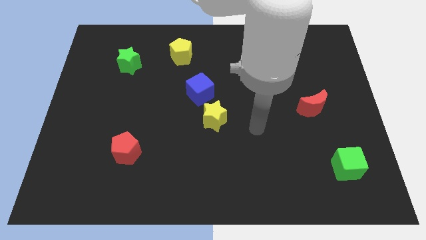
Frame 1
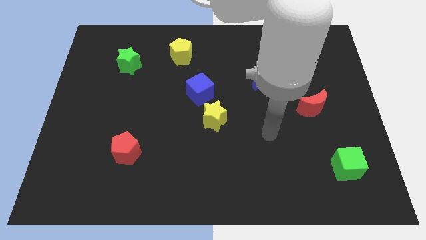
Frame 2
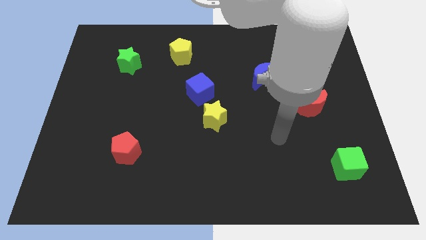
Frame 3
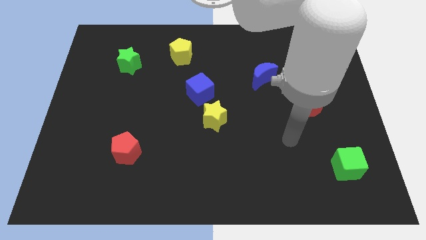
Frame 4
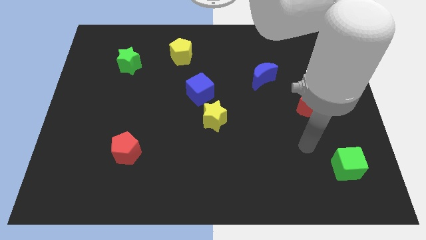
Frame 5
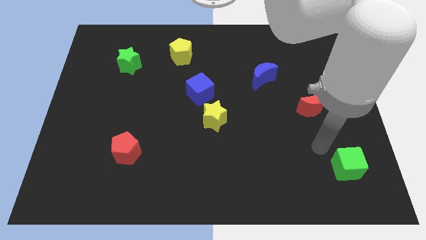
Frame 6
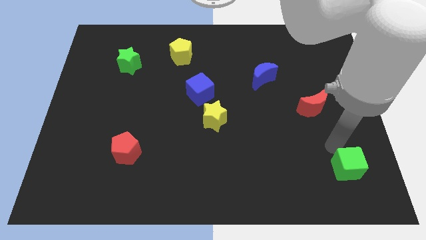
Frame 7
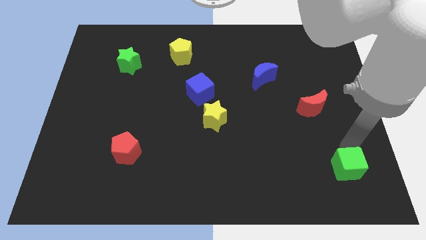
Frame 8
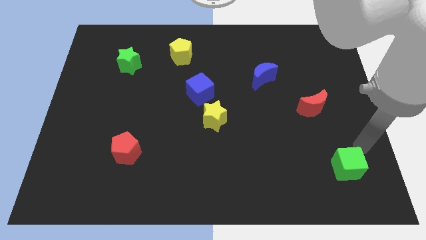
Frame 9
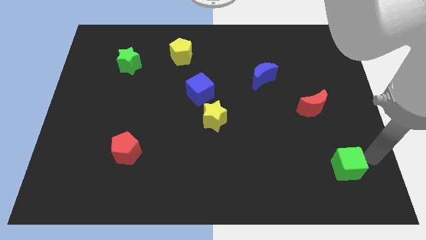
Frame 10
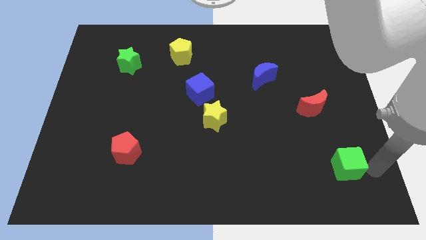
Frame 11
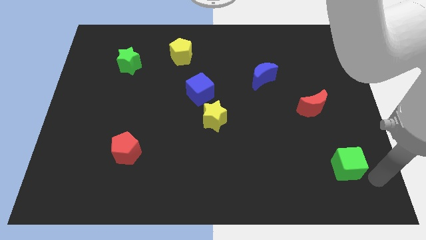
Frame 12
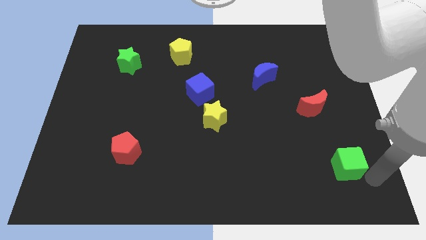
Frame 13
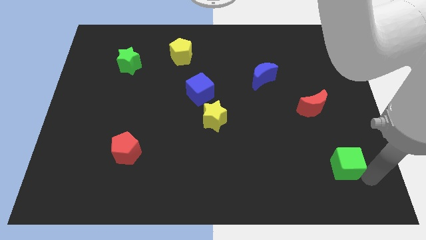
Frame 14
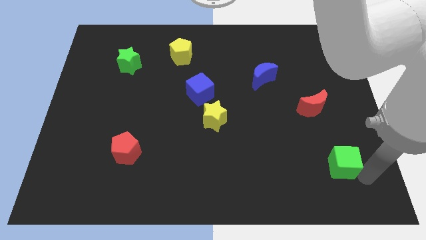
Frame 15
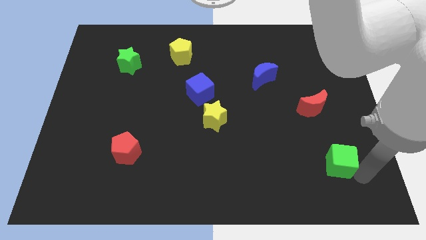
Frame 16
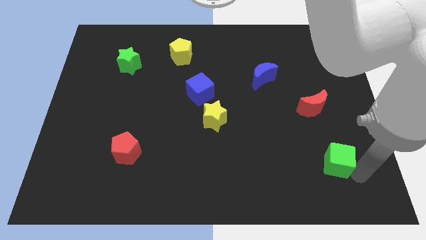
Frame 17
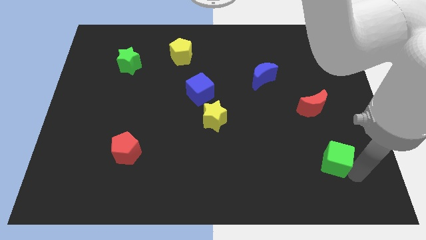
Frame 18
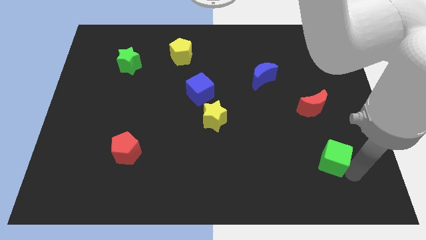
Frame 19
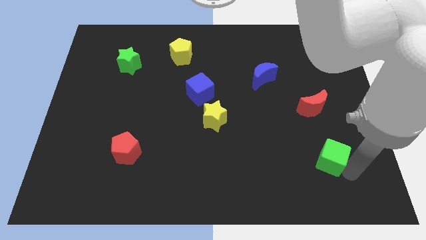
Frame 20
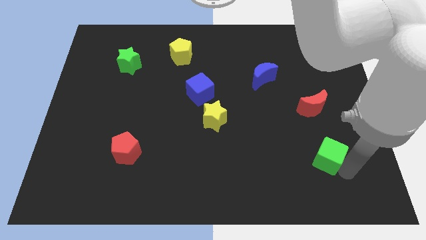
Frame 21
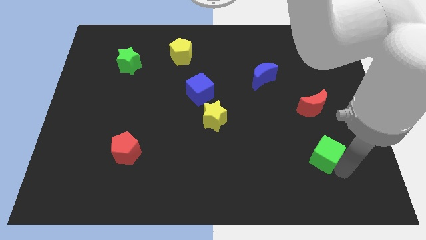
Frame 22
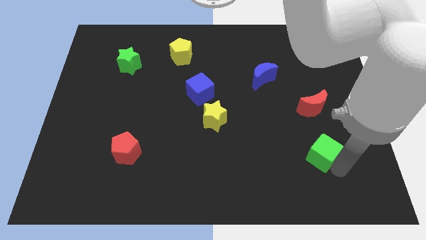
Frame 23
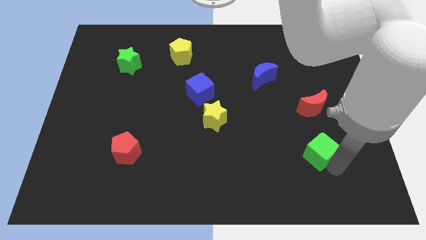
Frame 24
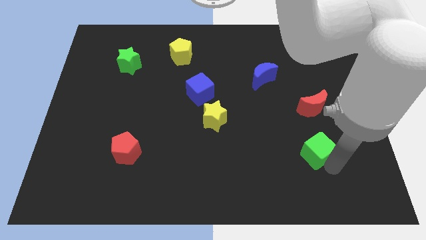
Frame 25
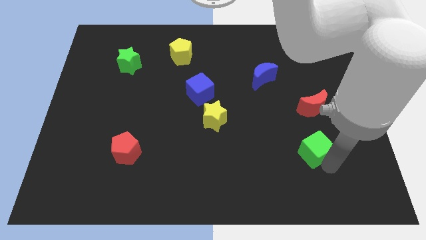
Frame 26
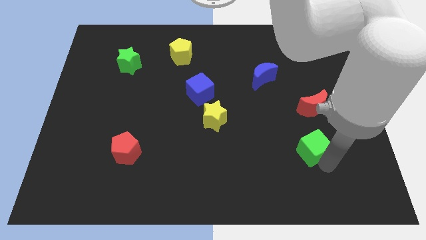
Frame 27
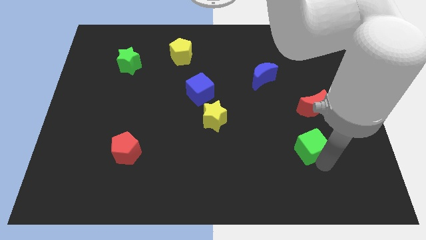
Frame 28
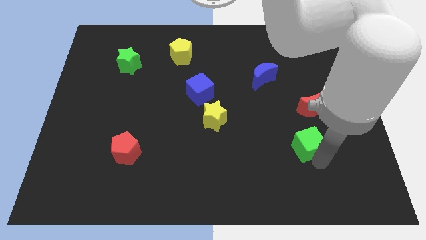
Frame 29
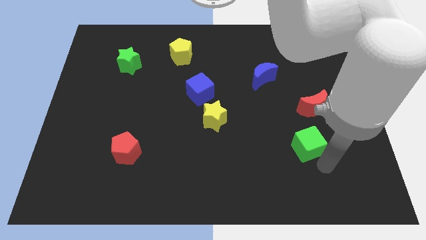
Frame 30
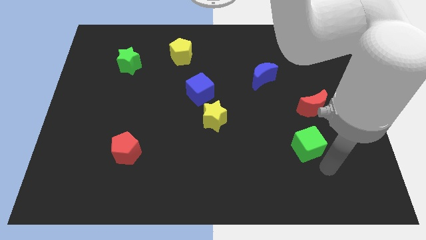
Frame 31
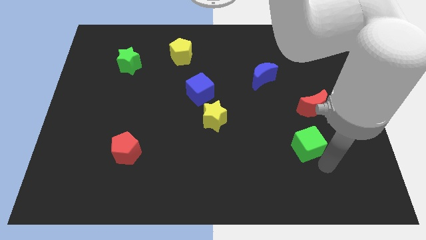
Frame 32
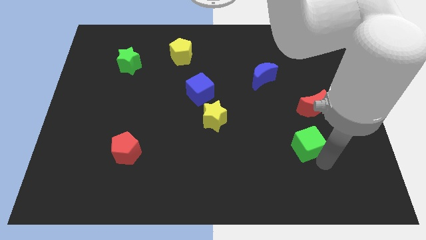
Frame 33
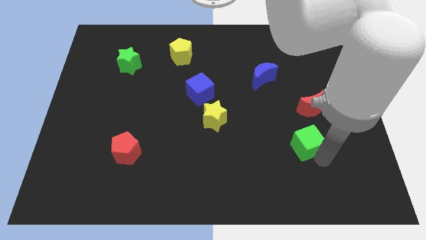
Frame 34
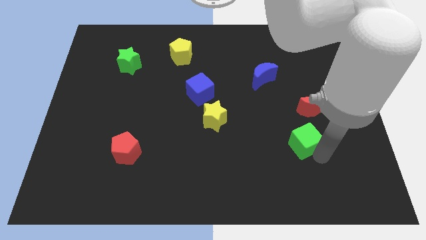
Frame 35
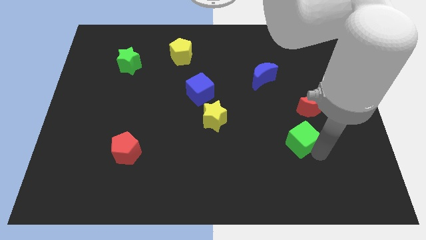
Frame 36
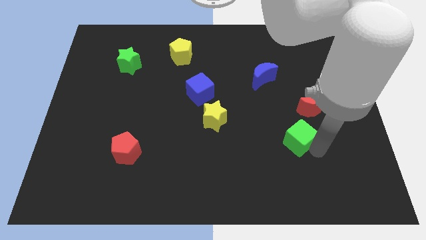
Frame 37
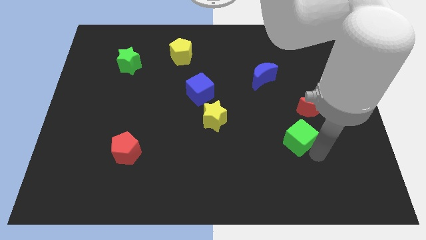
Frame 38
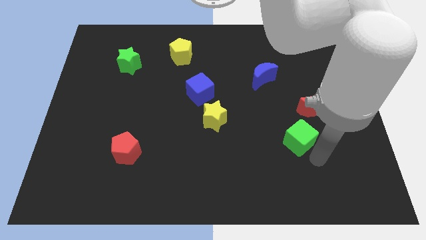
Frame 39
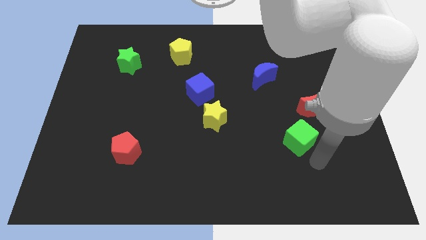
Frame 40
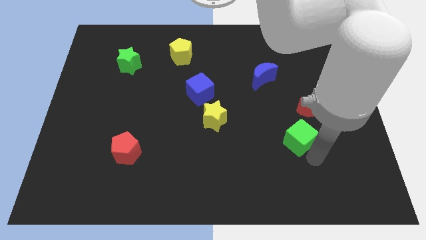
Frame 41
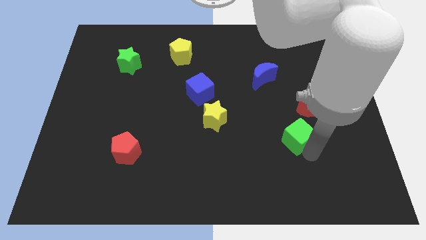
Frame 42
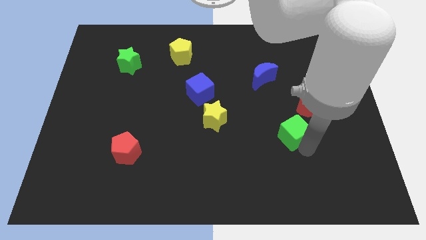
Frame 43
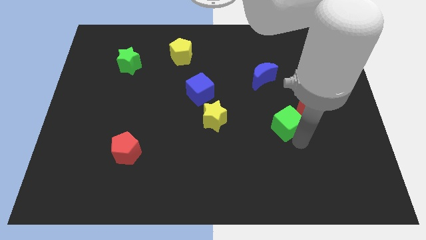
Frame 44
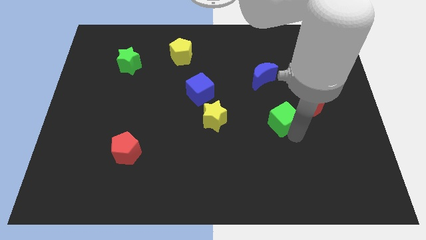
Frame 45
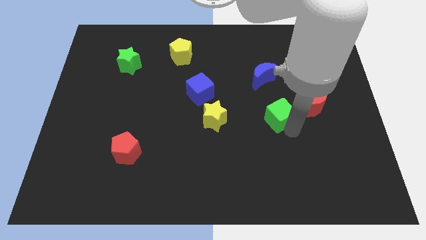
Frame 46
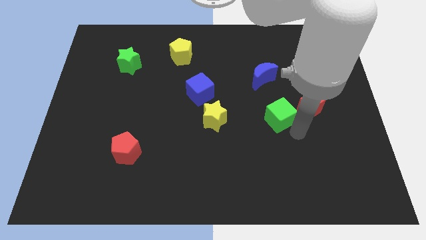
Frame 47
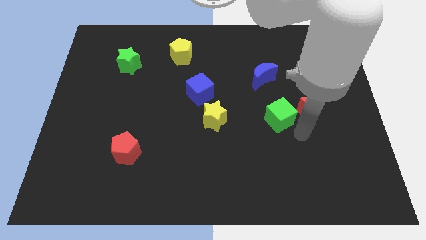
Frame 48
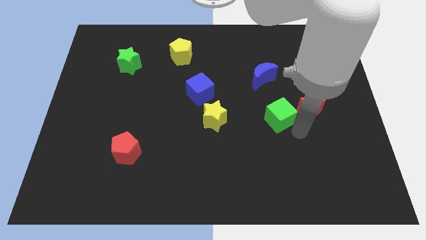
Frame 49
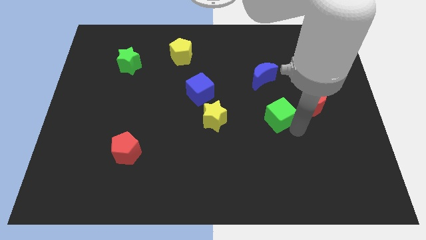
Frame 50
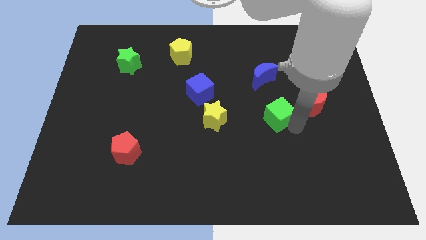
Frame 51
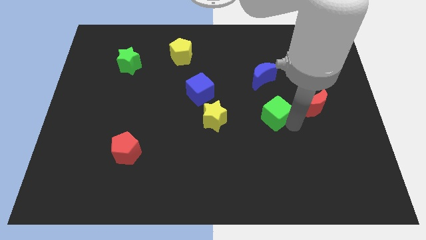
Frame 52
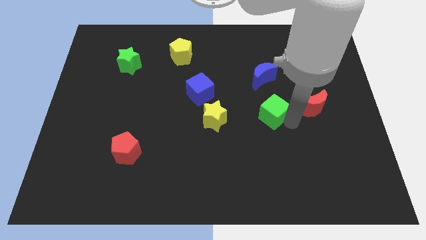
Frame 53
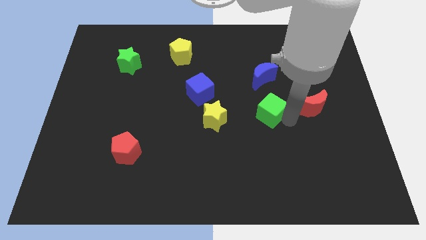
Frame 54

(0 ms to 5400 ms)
slide the green cube diagonally up and left

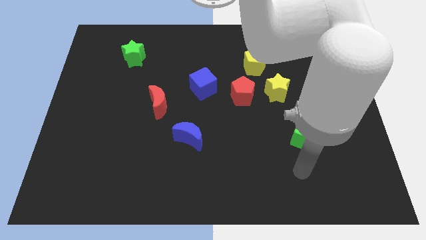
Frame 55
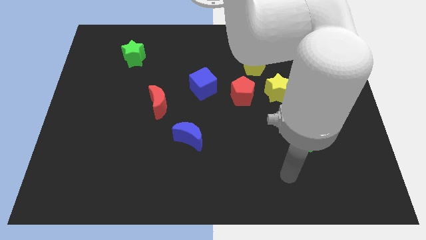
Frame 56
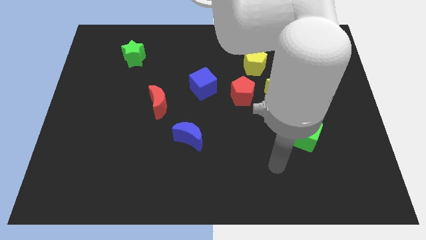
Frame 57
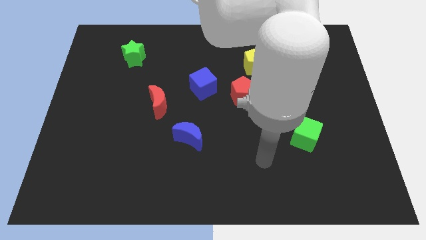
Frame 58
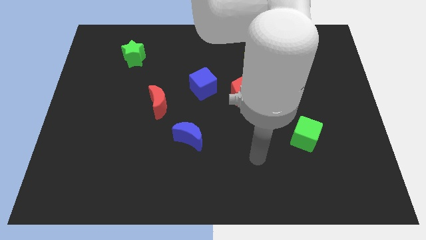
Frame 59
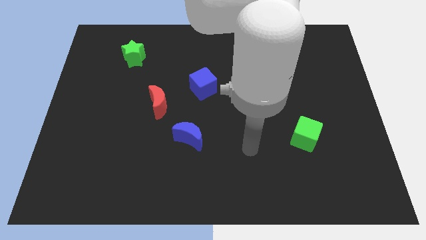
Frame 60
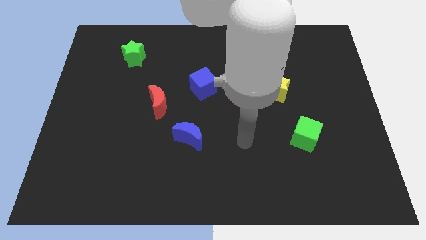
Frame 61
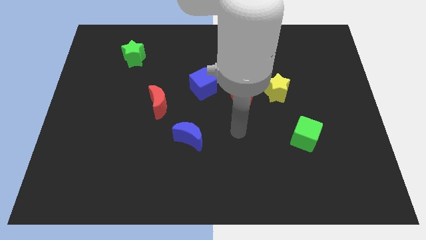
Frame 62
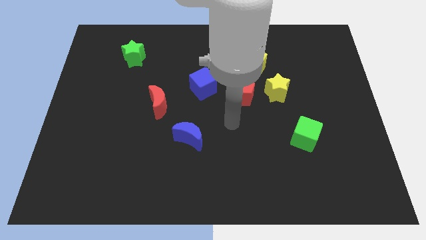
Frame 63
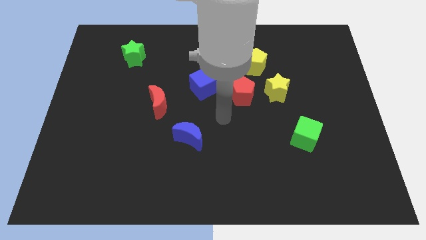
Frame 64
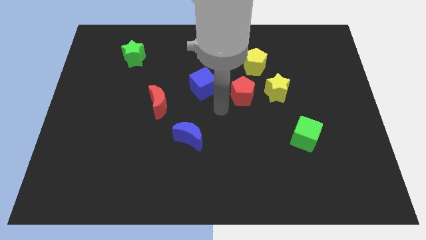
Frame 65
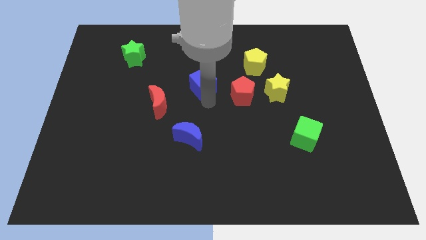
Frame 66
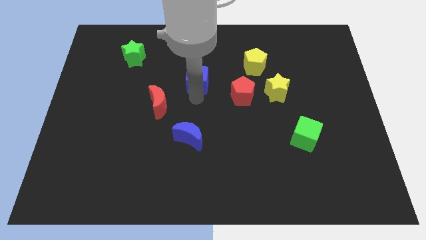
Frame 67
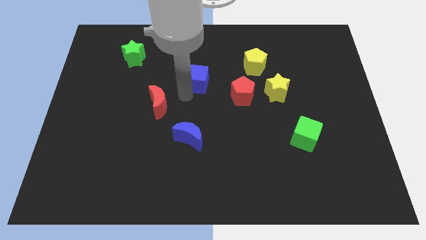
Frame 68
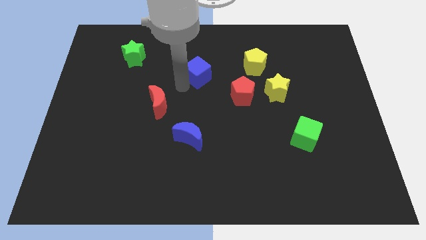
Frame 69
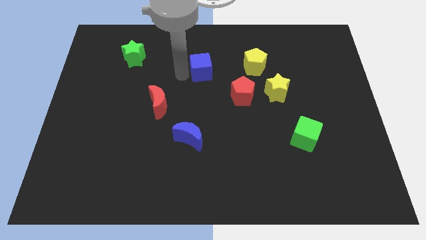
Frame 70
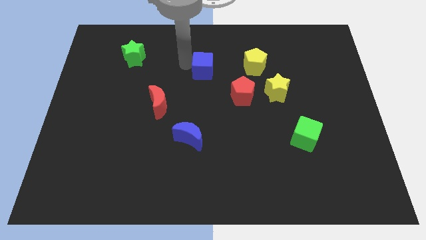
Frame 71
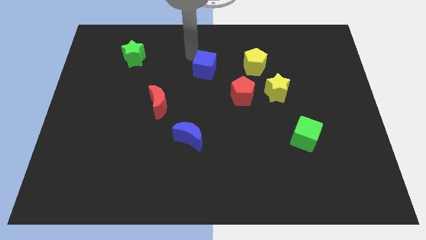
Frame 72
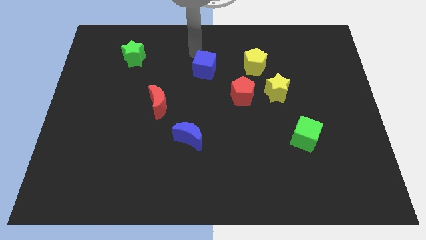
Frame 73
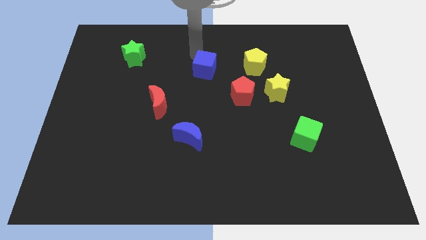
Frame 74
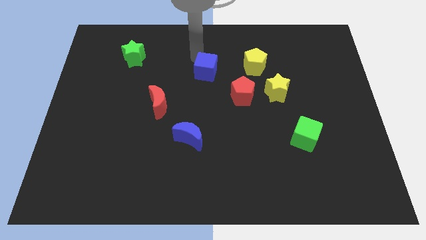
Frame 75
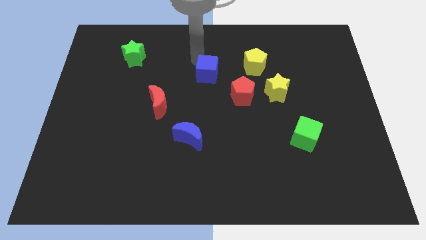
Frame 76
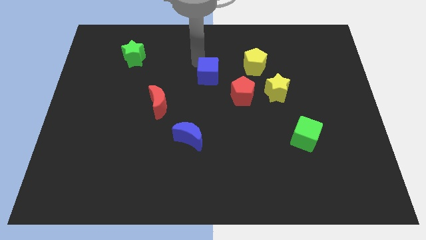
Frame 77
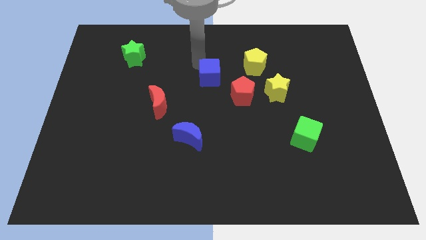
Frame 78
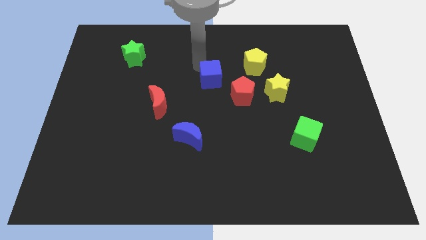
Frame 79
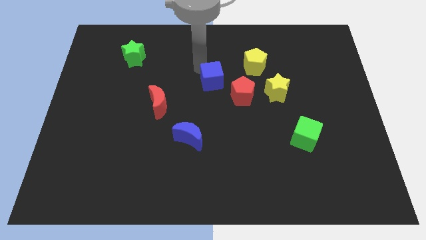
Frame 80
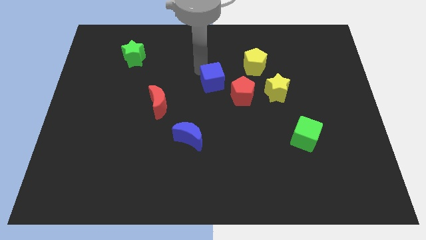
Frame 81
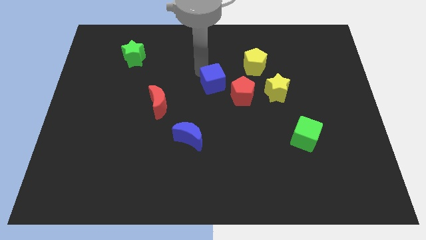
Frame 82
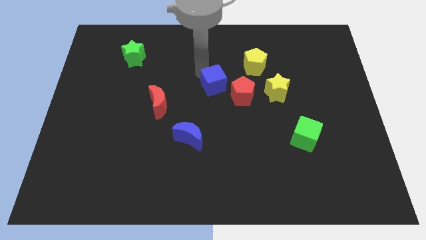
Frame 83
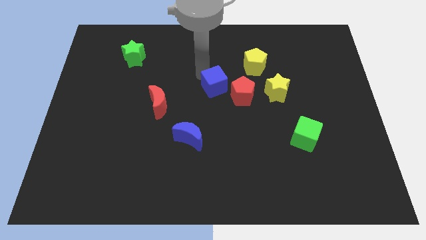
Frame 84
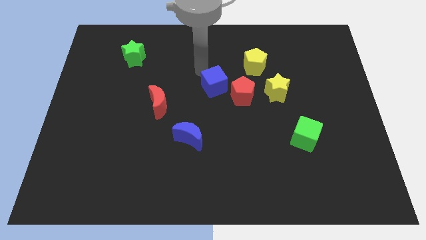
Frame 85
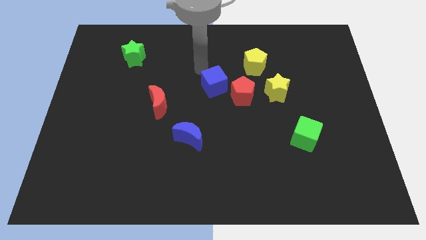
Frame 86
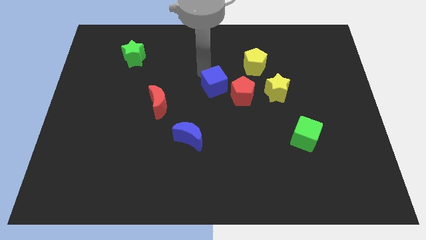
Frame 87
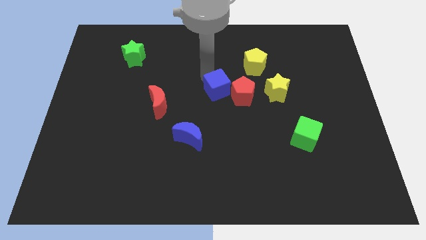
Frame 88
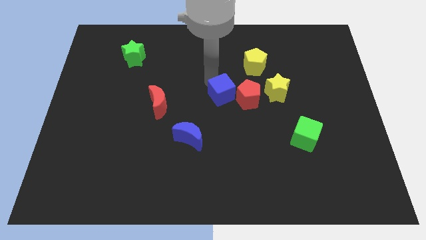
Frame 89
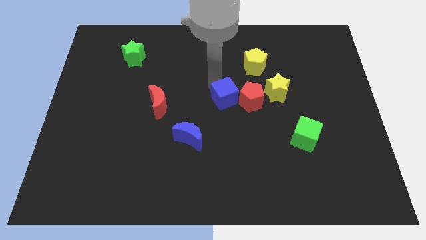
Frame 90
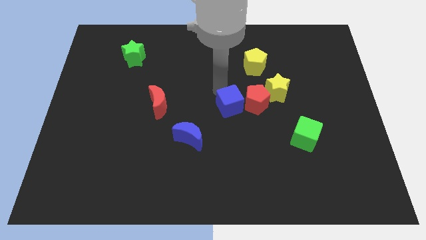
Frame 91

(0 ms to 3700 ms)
slightly slide the blue cube downwards and to the right
